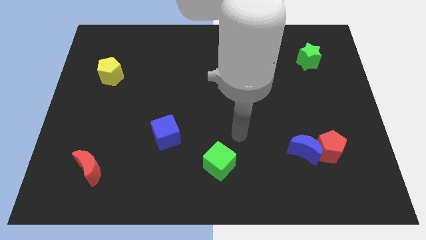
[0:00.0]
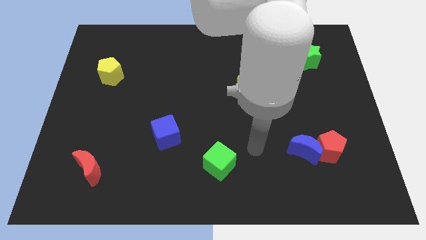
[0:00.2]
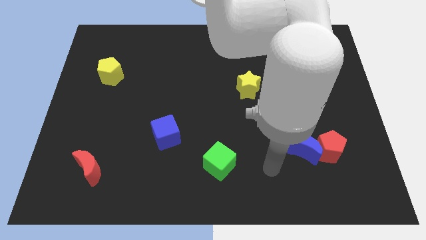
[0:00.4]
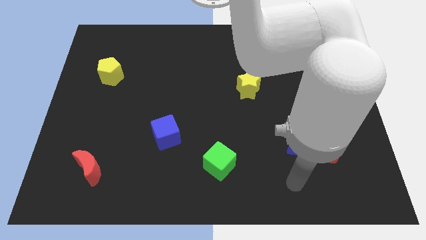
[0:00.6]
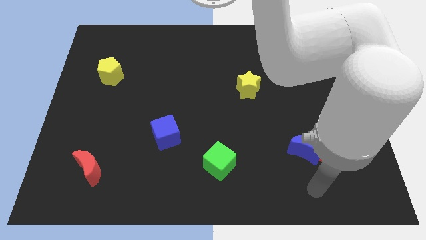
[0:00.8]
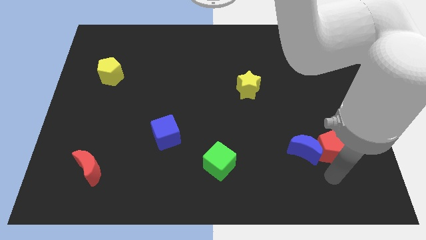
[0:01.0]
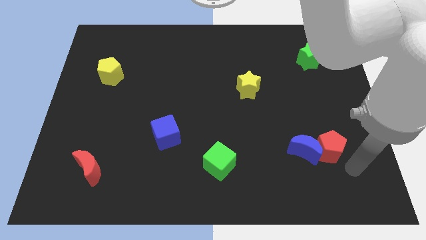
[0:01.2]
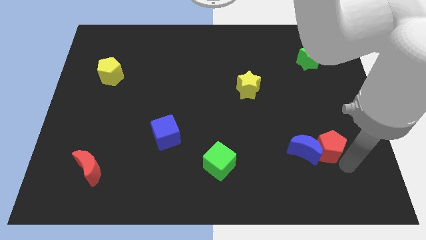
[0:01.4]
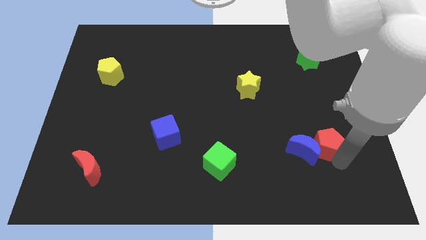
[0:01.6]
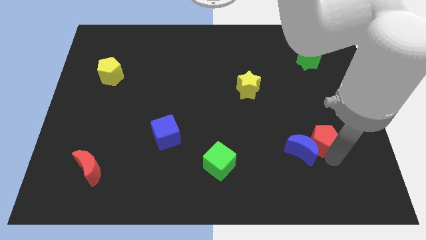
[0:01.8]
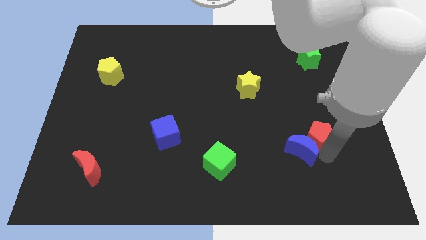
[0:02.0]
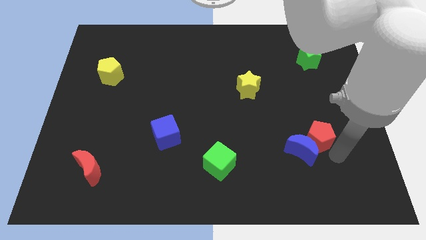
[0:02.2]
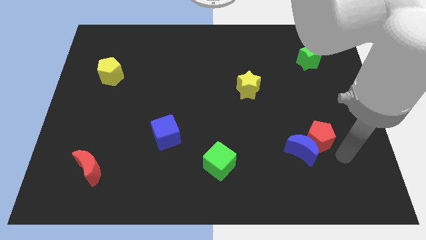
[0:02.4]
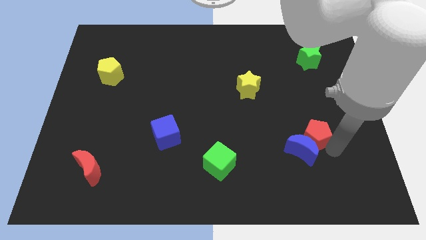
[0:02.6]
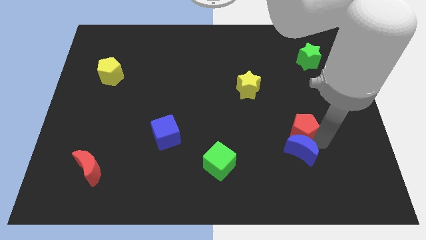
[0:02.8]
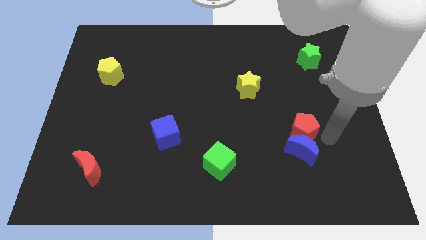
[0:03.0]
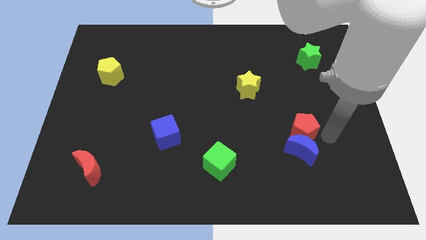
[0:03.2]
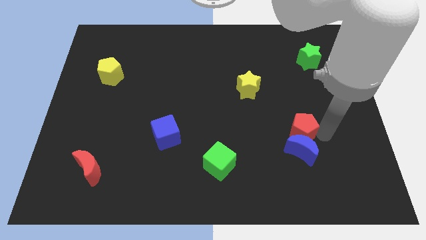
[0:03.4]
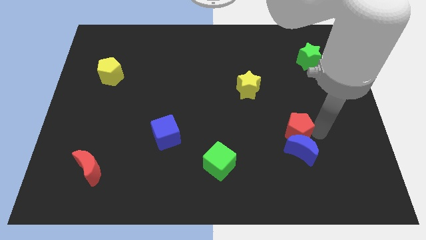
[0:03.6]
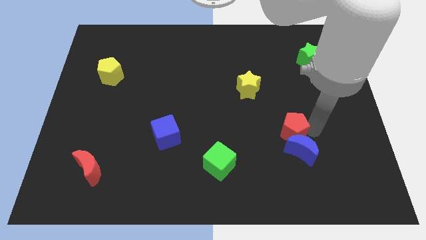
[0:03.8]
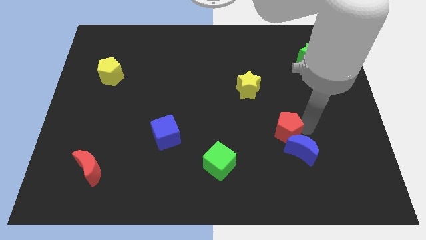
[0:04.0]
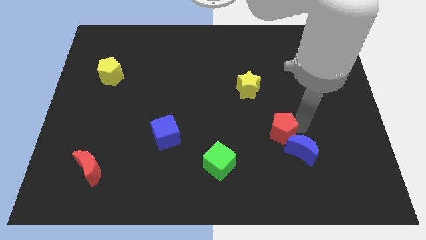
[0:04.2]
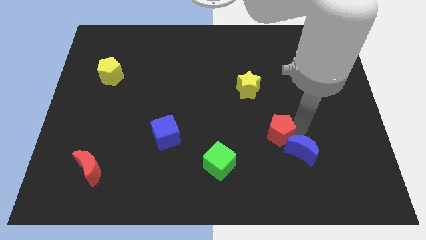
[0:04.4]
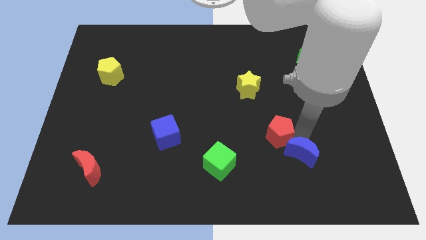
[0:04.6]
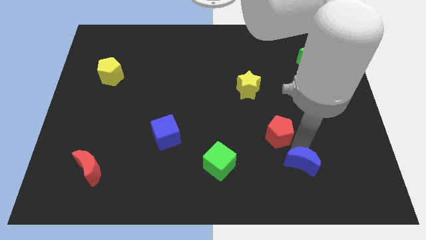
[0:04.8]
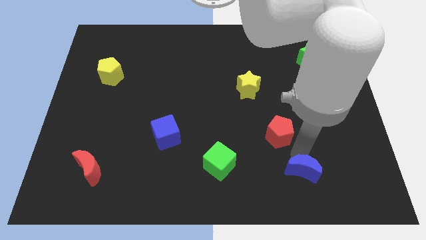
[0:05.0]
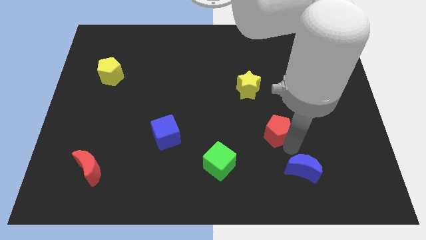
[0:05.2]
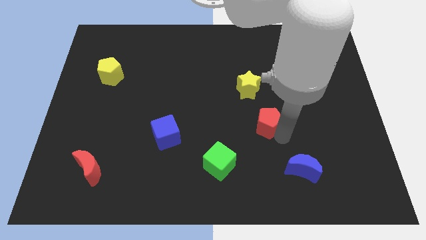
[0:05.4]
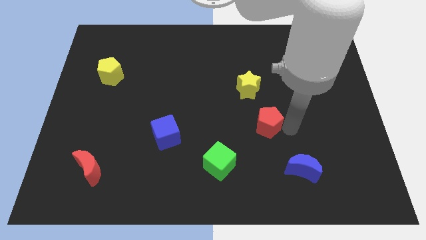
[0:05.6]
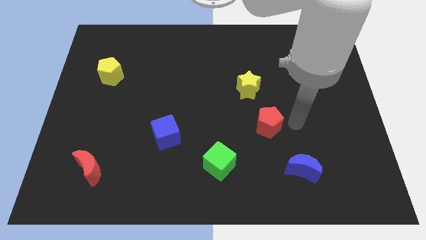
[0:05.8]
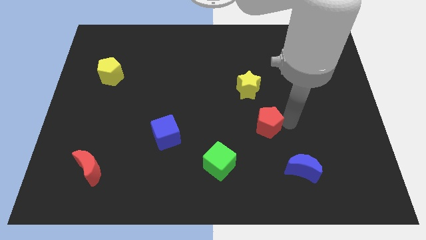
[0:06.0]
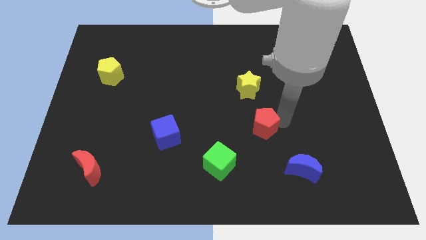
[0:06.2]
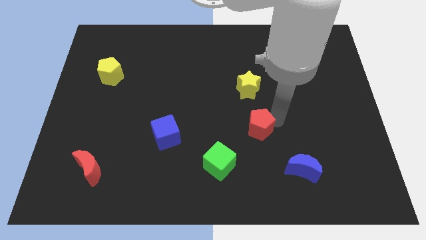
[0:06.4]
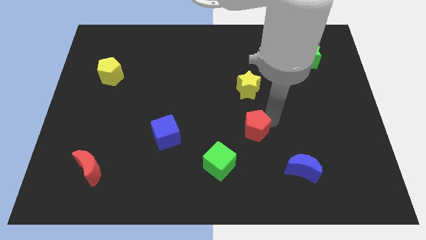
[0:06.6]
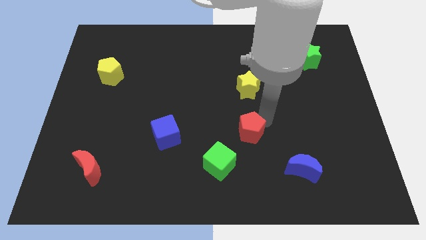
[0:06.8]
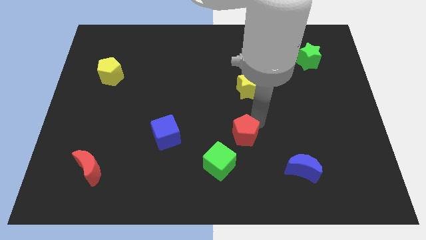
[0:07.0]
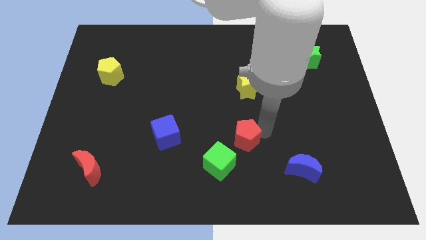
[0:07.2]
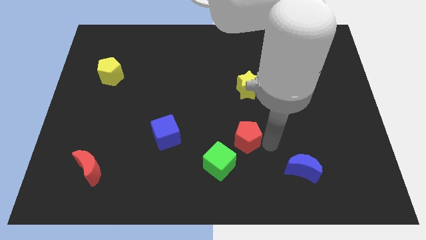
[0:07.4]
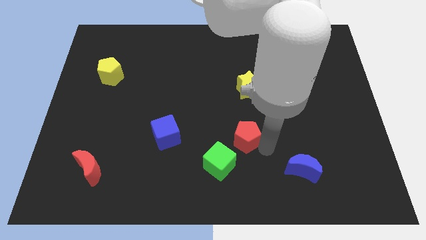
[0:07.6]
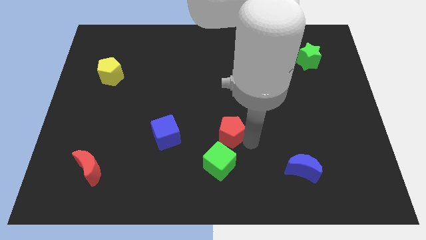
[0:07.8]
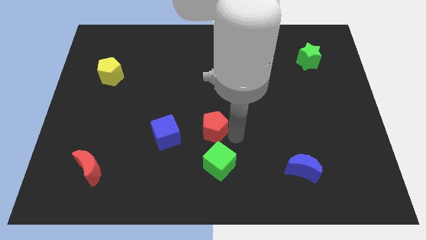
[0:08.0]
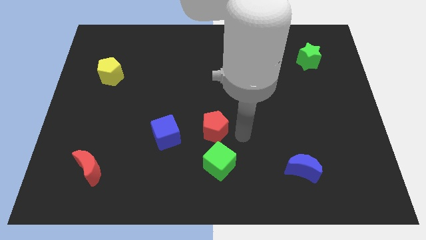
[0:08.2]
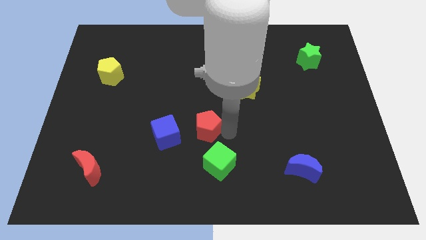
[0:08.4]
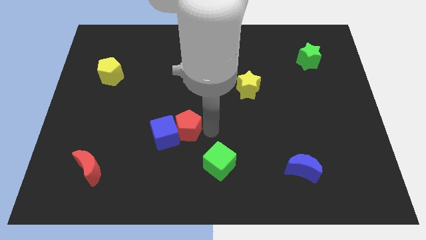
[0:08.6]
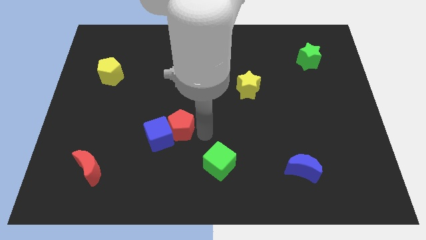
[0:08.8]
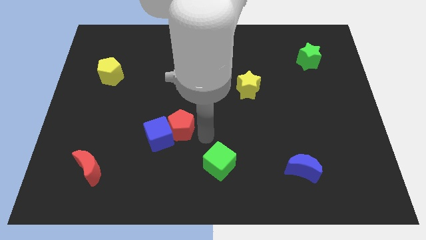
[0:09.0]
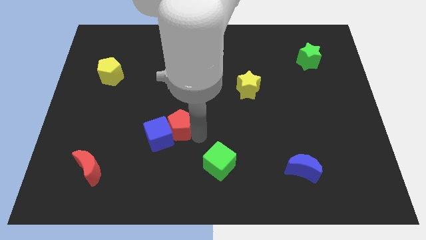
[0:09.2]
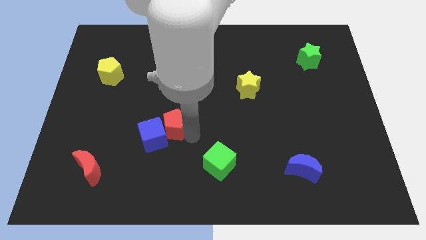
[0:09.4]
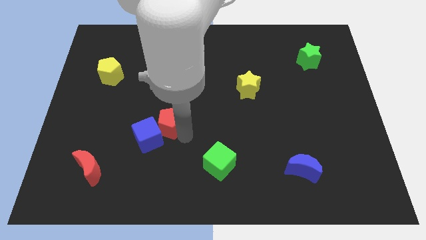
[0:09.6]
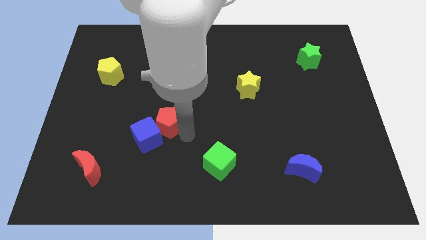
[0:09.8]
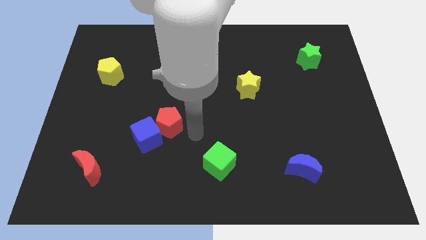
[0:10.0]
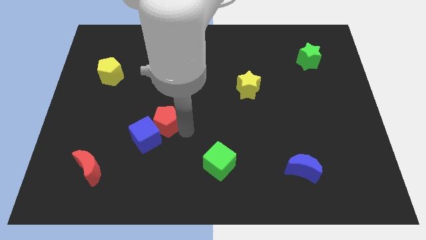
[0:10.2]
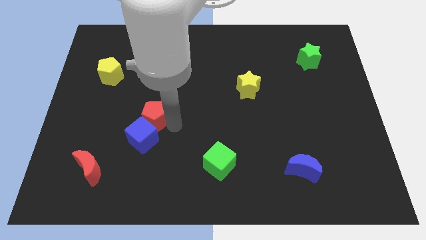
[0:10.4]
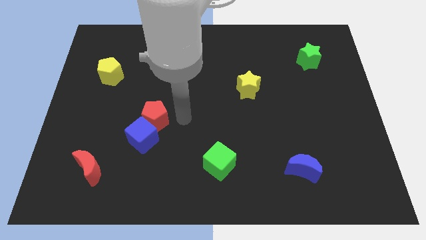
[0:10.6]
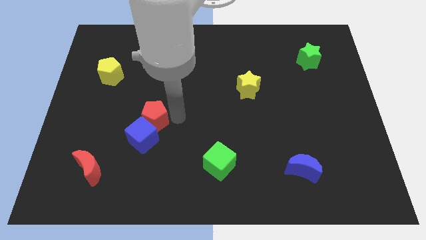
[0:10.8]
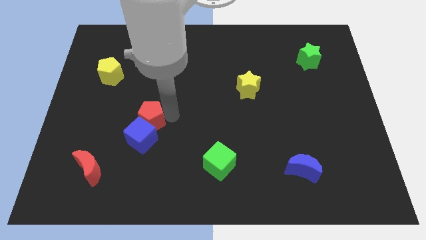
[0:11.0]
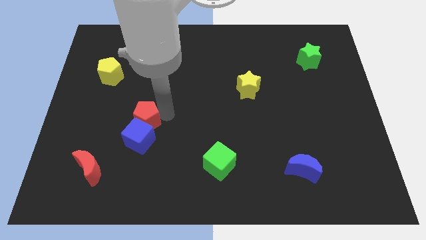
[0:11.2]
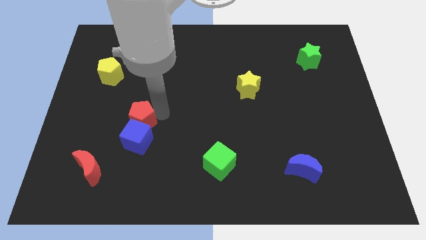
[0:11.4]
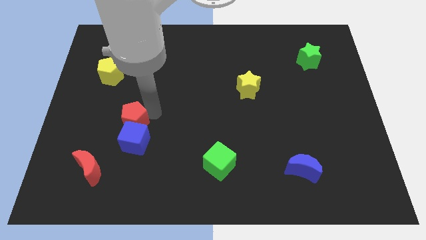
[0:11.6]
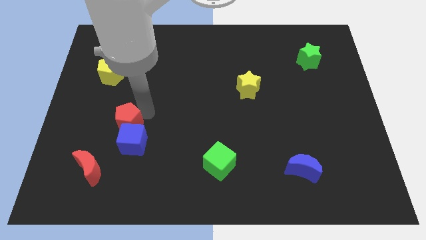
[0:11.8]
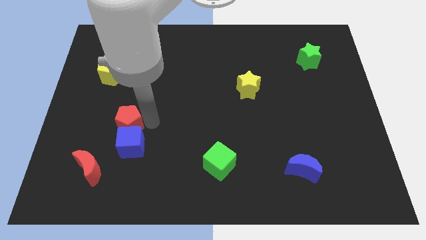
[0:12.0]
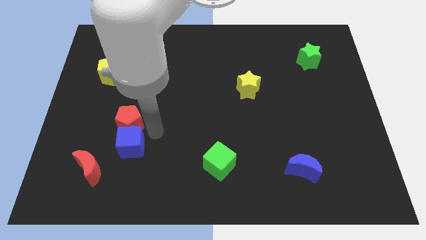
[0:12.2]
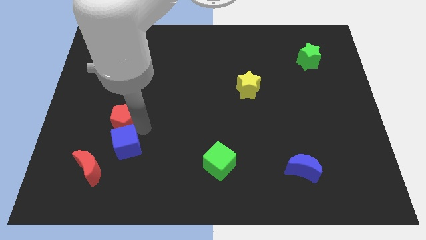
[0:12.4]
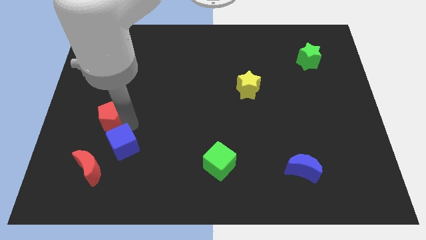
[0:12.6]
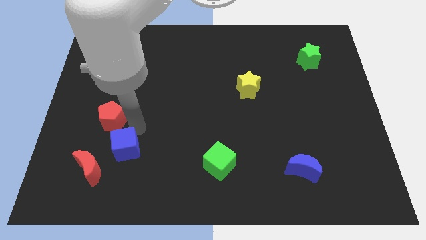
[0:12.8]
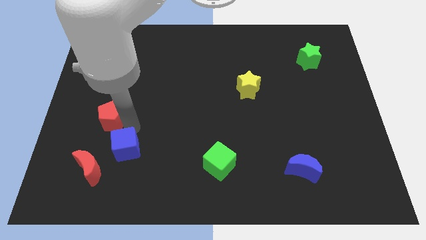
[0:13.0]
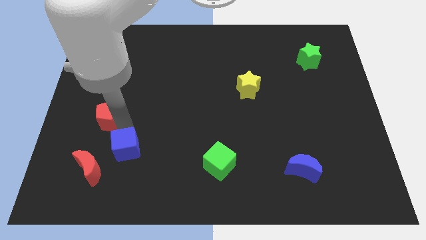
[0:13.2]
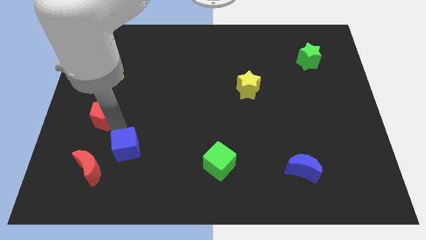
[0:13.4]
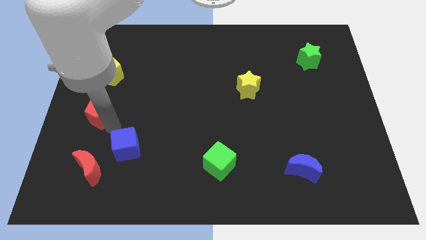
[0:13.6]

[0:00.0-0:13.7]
put the red pentagon to the left side of the board

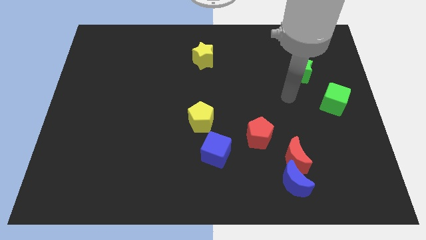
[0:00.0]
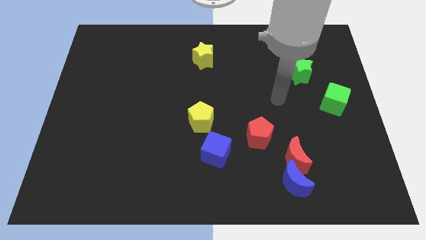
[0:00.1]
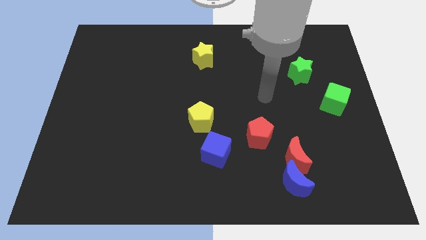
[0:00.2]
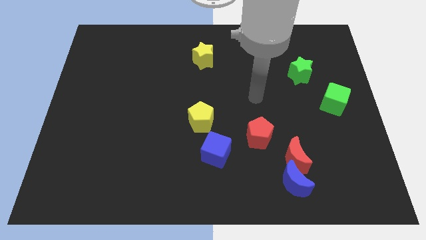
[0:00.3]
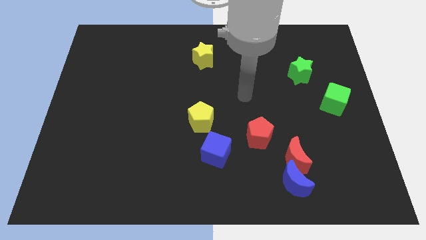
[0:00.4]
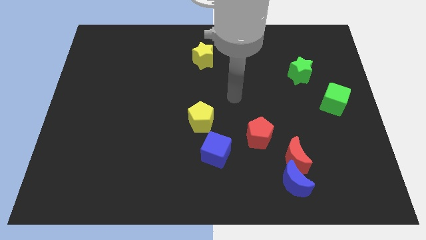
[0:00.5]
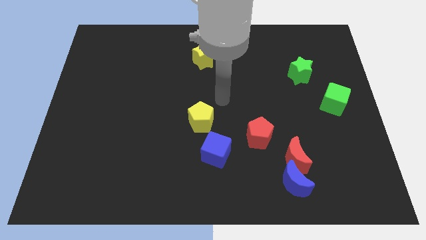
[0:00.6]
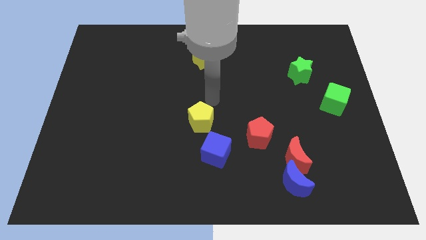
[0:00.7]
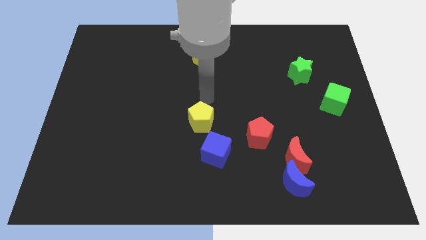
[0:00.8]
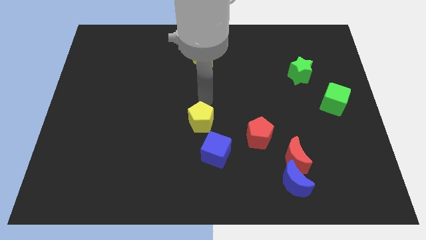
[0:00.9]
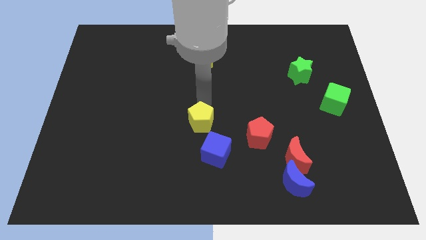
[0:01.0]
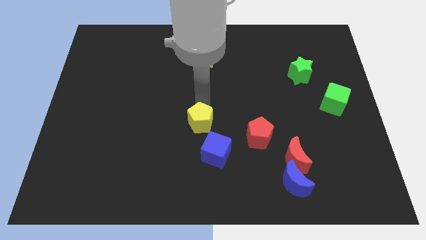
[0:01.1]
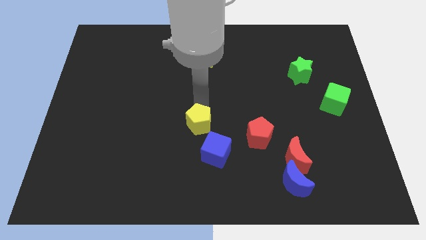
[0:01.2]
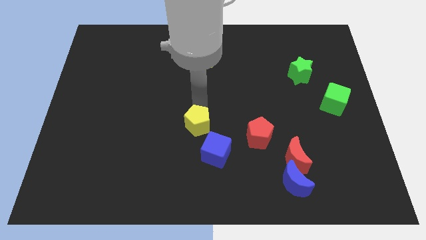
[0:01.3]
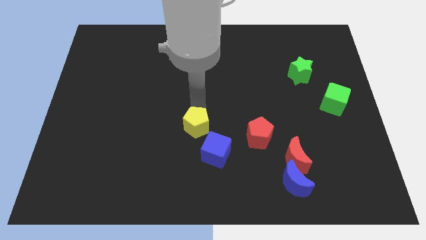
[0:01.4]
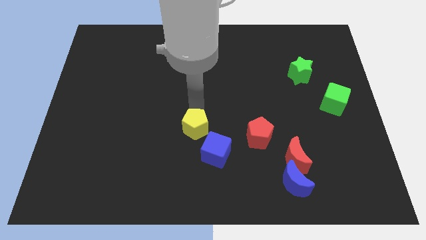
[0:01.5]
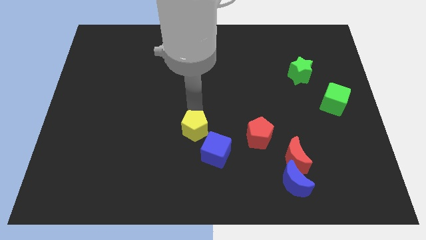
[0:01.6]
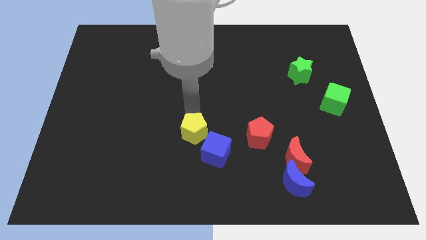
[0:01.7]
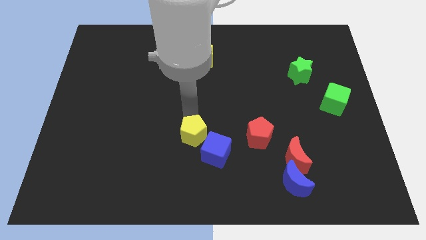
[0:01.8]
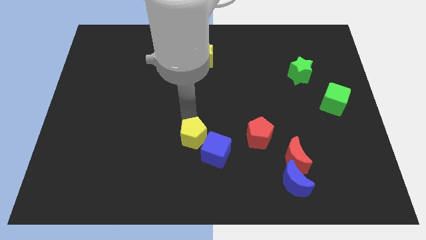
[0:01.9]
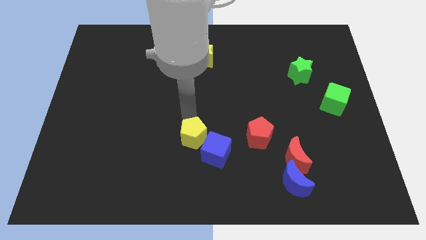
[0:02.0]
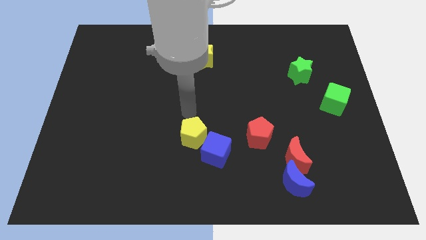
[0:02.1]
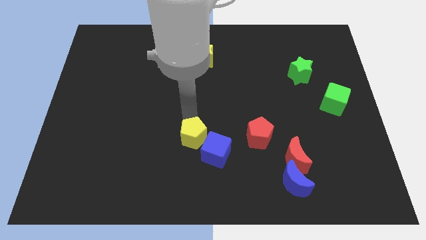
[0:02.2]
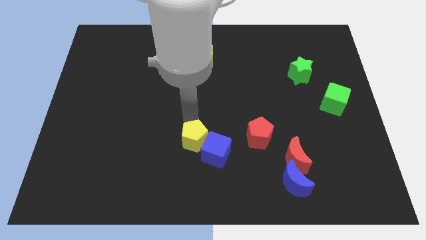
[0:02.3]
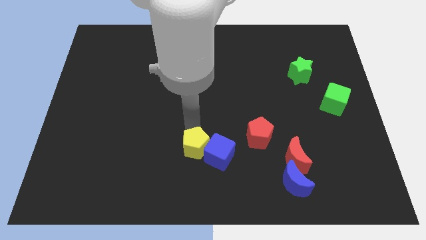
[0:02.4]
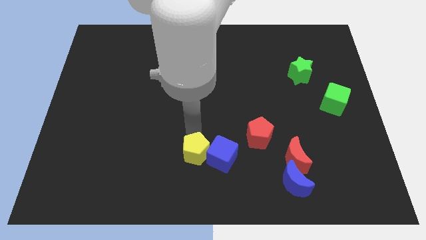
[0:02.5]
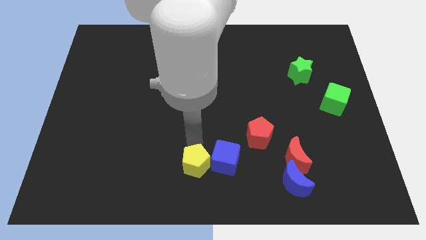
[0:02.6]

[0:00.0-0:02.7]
push the yellow pentagon to the bottom
